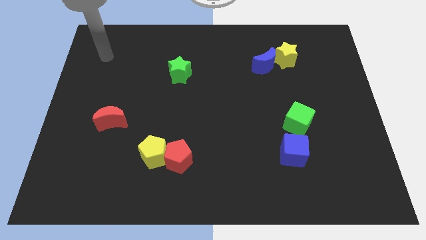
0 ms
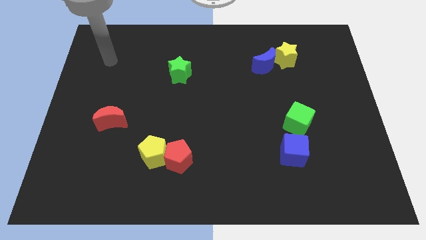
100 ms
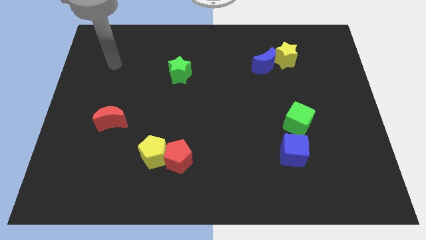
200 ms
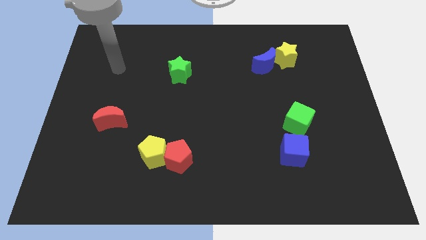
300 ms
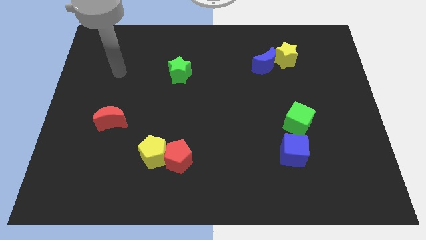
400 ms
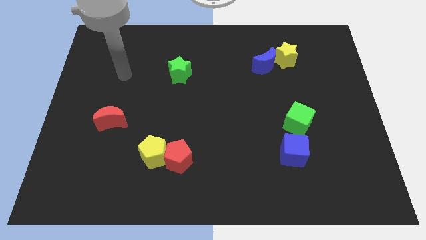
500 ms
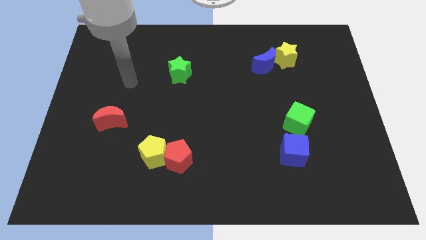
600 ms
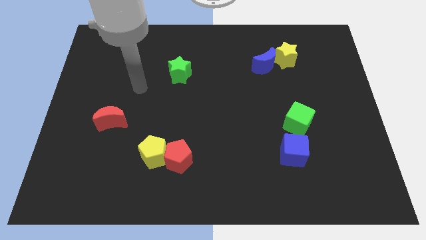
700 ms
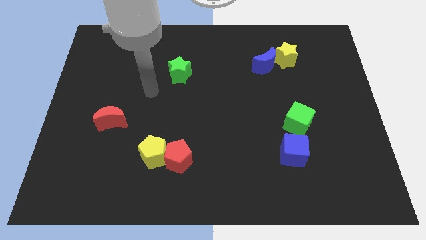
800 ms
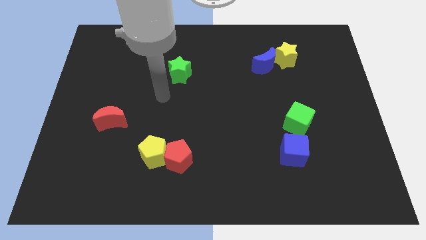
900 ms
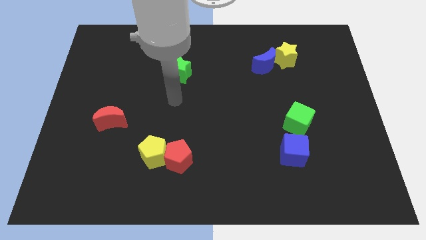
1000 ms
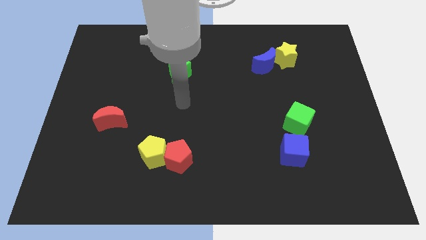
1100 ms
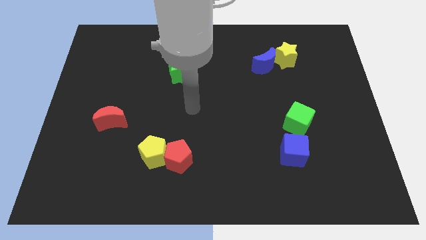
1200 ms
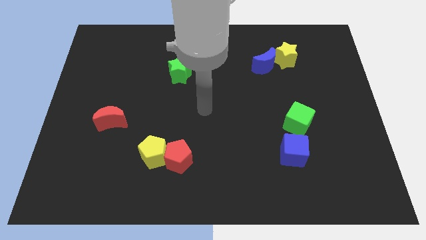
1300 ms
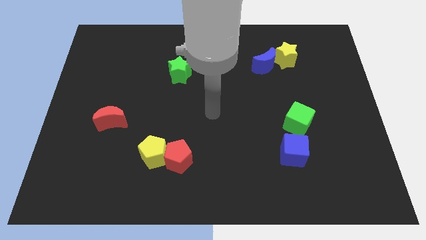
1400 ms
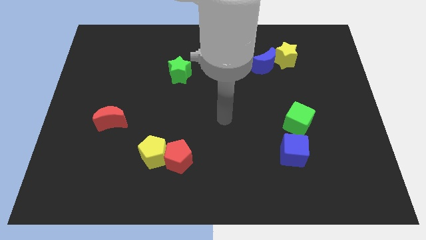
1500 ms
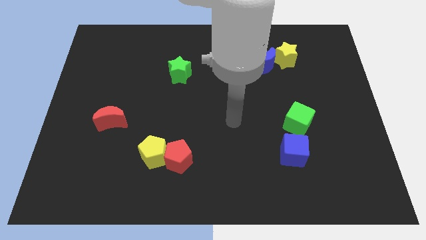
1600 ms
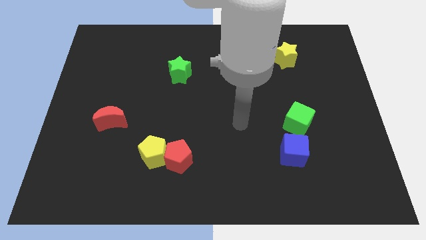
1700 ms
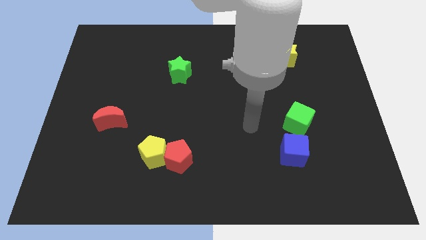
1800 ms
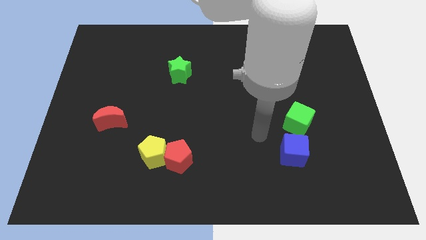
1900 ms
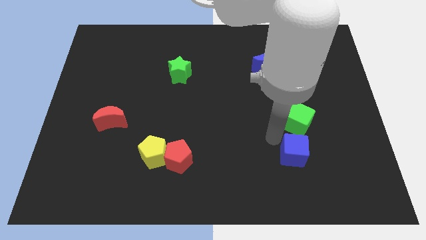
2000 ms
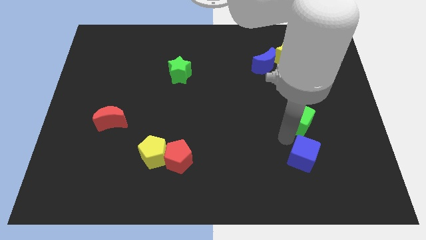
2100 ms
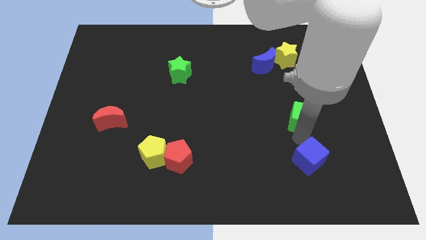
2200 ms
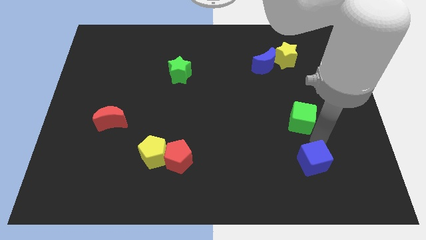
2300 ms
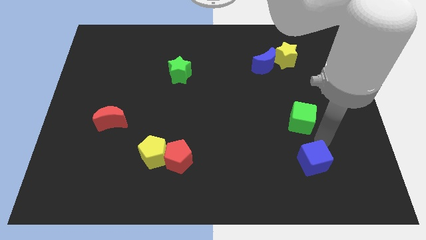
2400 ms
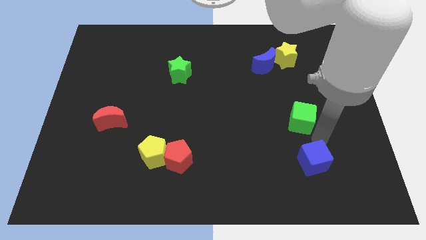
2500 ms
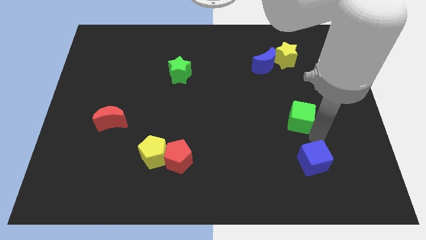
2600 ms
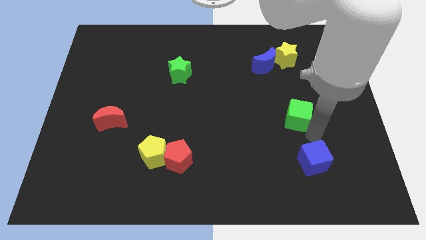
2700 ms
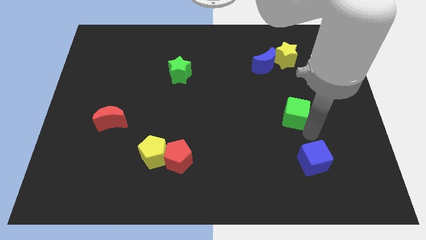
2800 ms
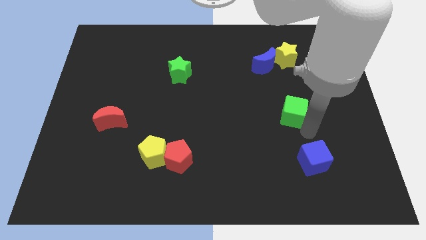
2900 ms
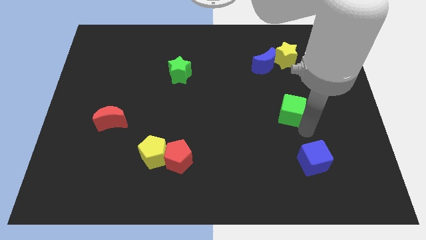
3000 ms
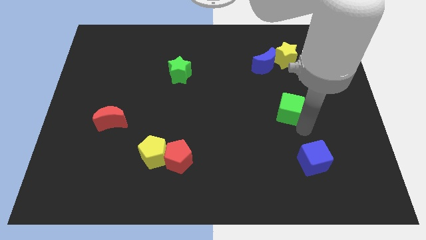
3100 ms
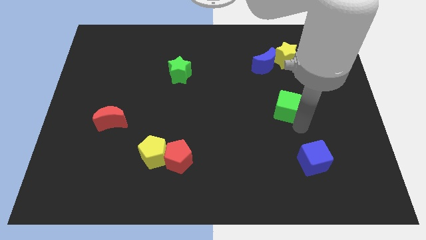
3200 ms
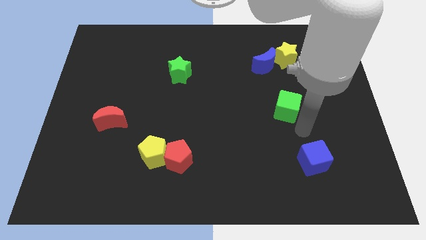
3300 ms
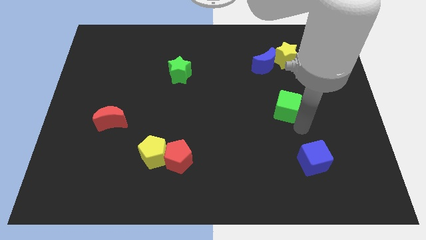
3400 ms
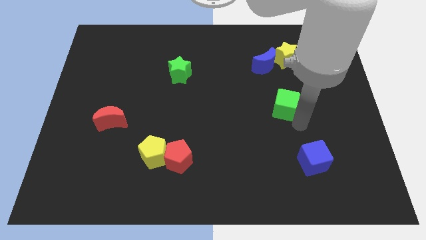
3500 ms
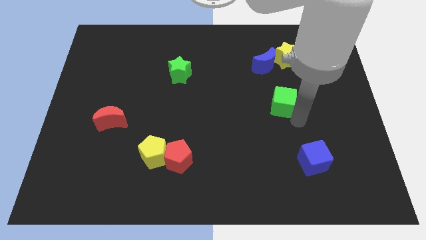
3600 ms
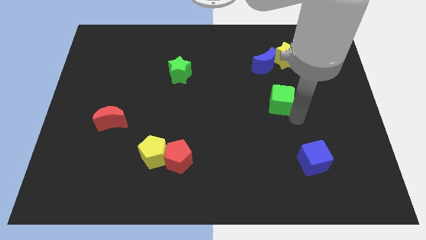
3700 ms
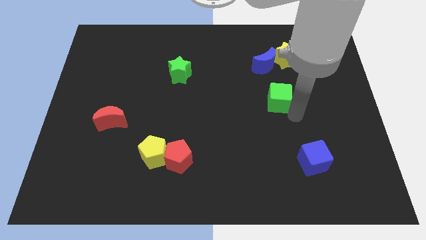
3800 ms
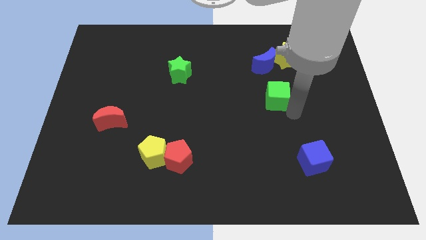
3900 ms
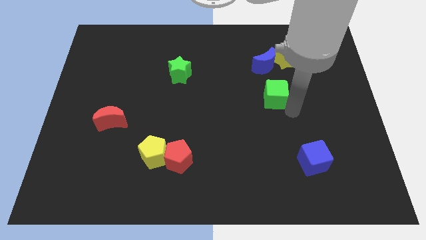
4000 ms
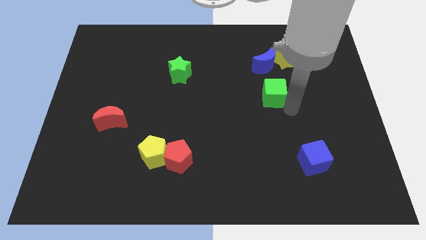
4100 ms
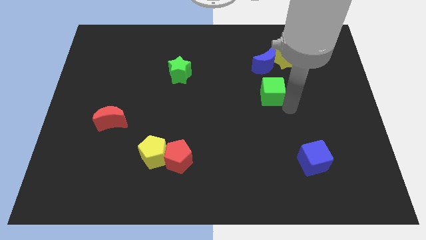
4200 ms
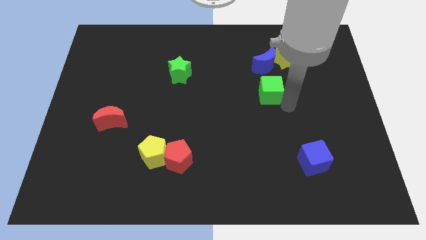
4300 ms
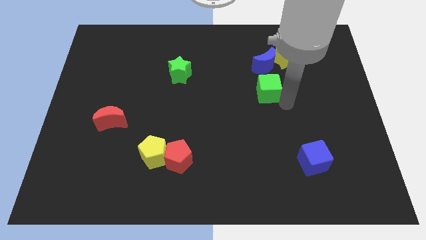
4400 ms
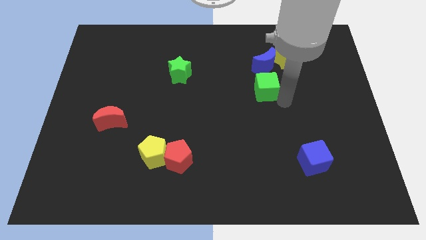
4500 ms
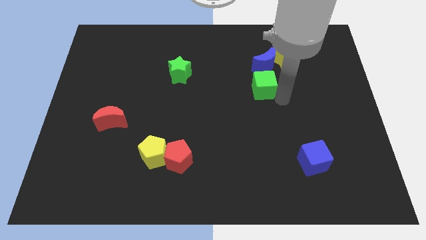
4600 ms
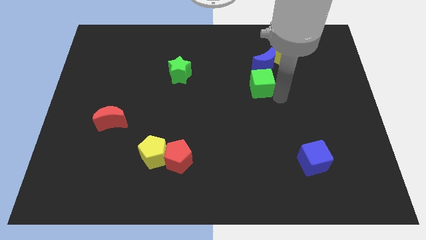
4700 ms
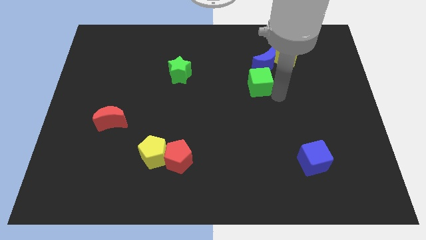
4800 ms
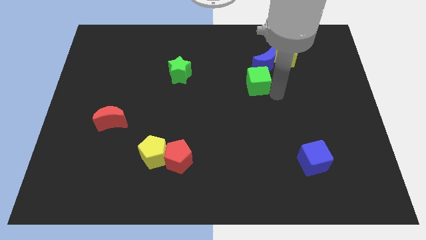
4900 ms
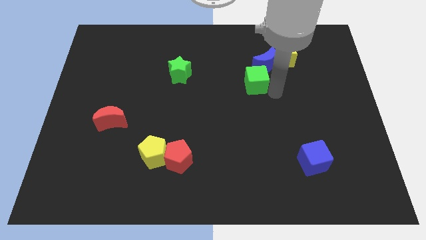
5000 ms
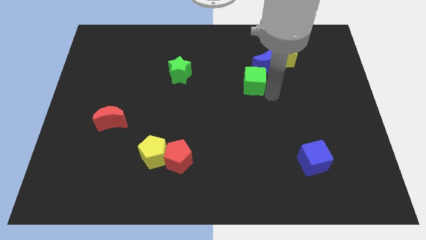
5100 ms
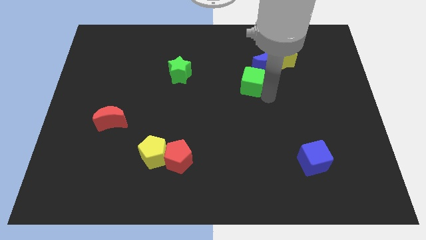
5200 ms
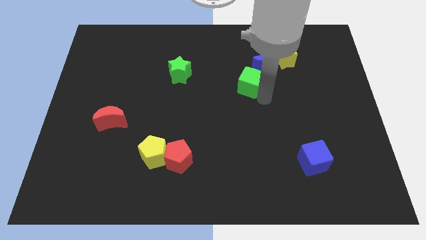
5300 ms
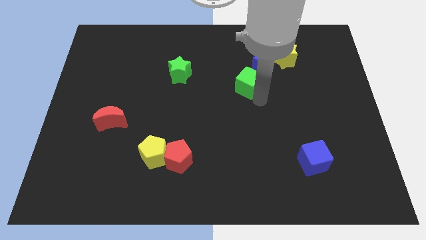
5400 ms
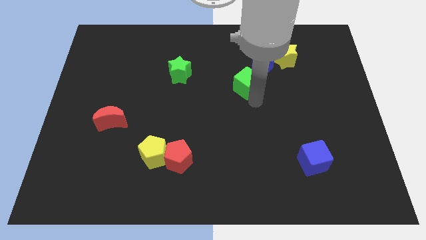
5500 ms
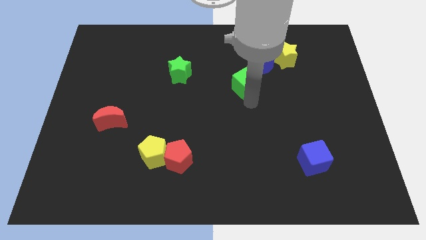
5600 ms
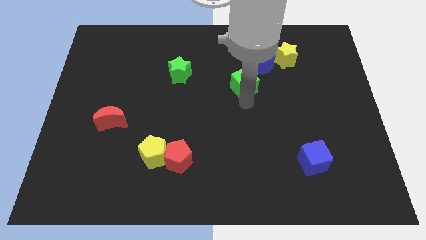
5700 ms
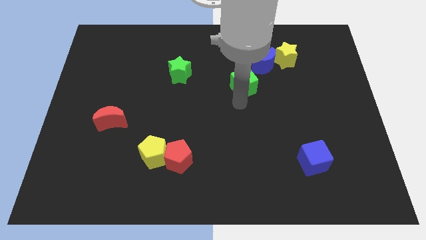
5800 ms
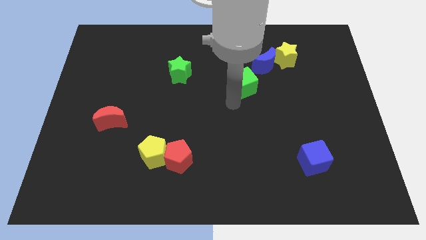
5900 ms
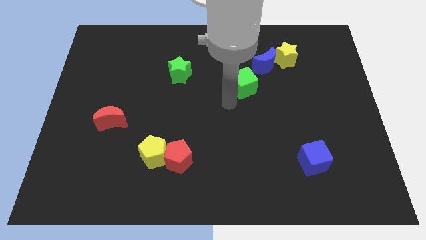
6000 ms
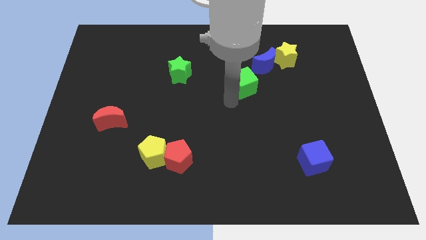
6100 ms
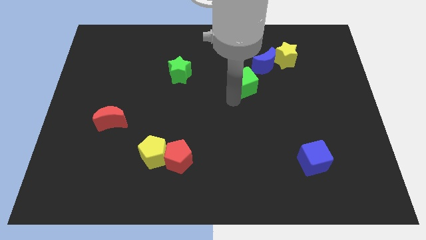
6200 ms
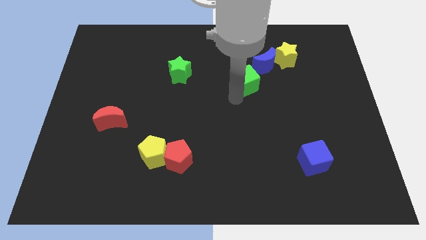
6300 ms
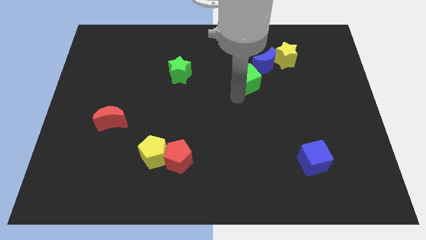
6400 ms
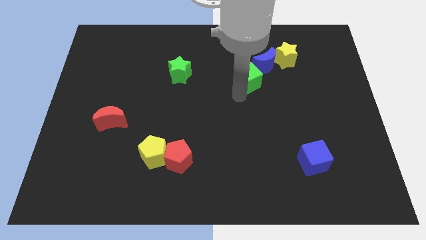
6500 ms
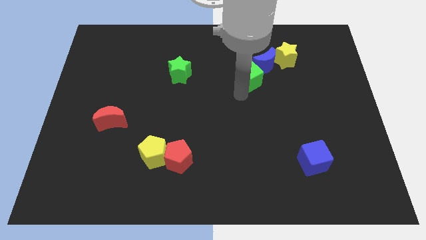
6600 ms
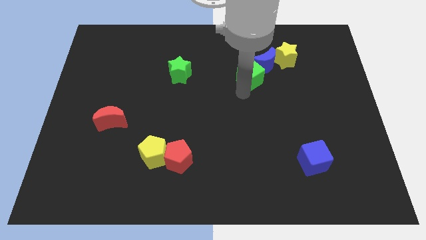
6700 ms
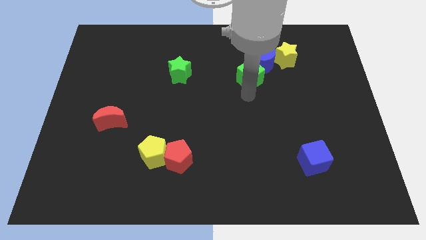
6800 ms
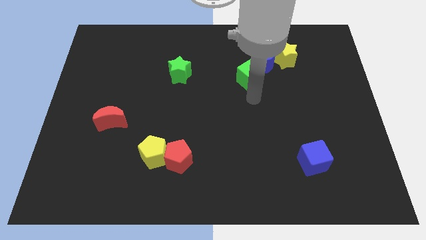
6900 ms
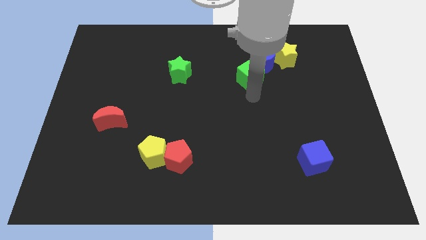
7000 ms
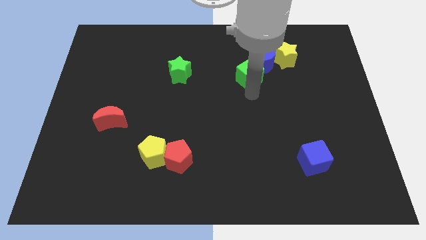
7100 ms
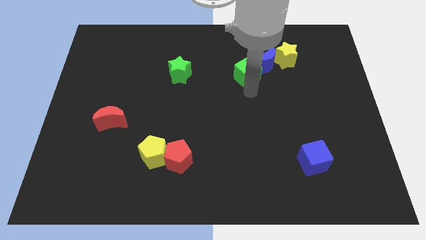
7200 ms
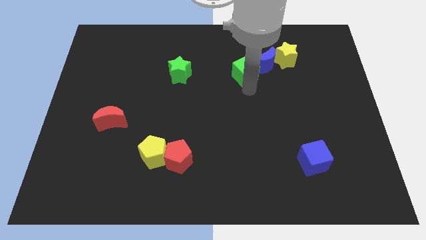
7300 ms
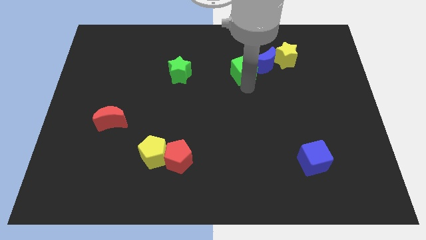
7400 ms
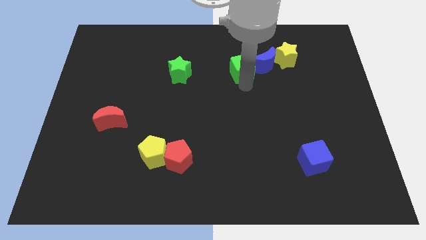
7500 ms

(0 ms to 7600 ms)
move the green cube left of the yellow star
